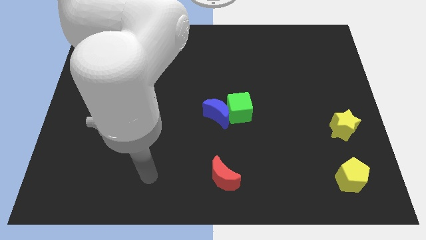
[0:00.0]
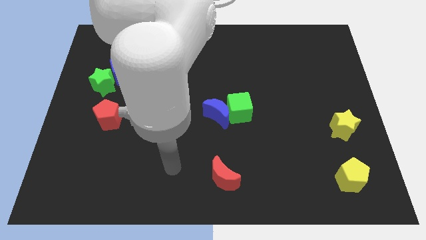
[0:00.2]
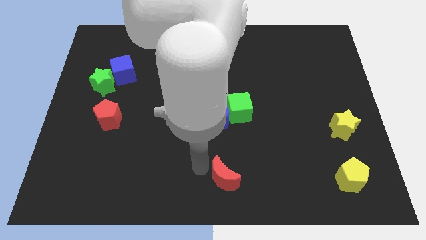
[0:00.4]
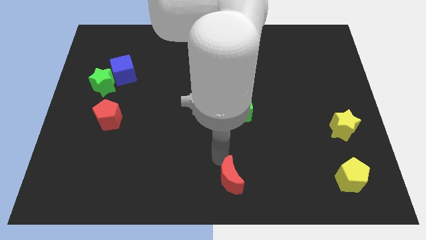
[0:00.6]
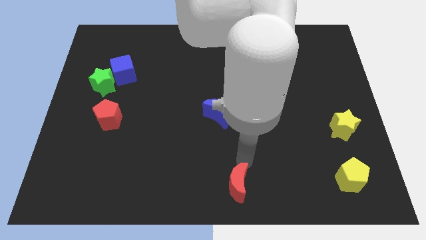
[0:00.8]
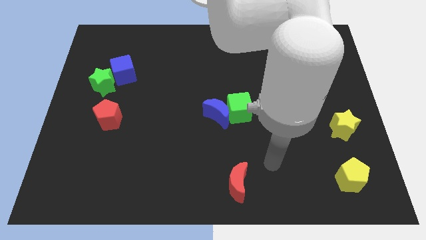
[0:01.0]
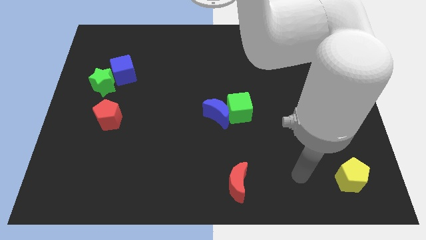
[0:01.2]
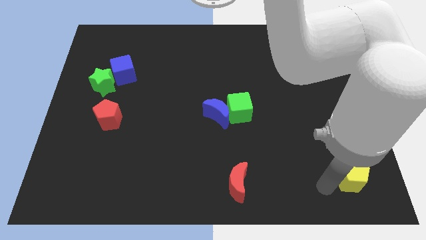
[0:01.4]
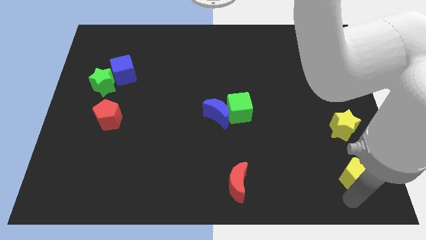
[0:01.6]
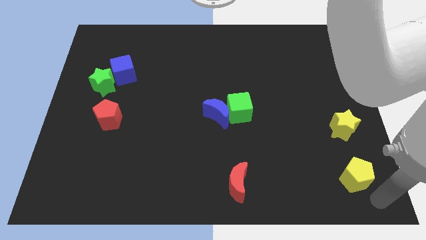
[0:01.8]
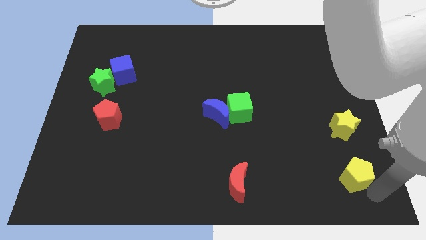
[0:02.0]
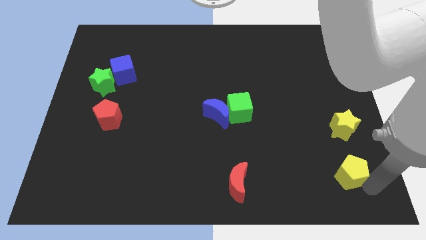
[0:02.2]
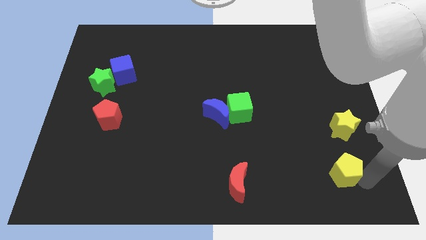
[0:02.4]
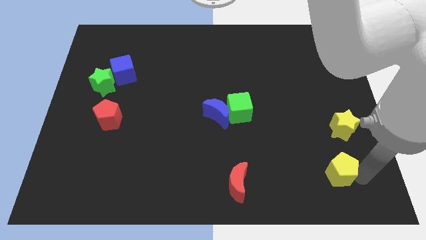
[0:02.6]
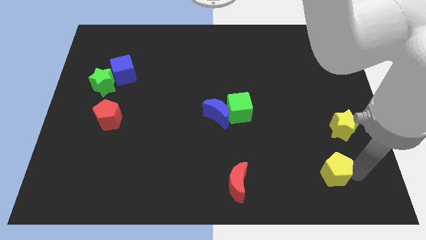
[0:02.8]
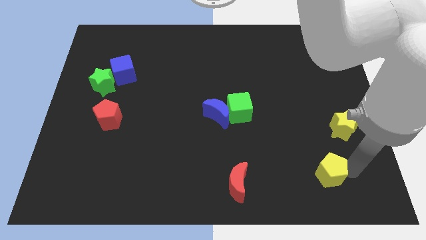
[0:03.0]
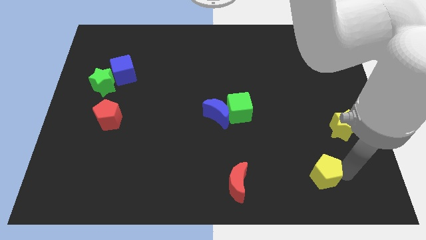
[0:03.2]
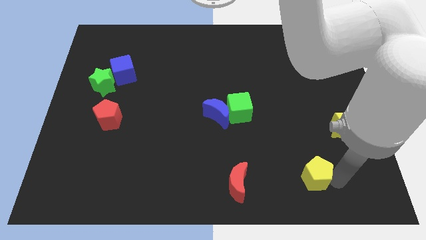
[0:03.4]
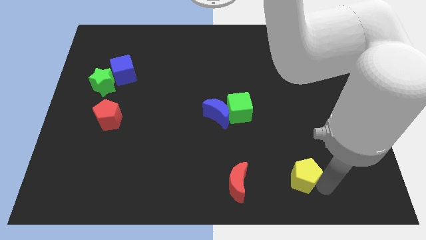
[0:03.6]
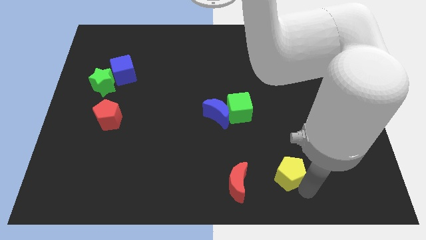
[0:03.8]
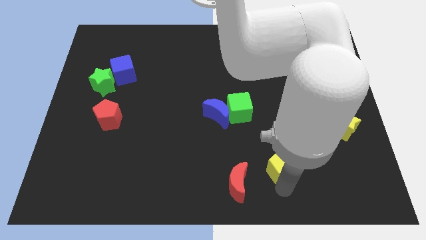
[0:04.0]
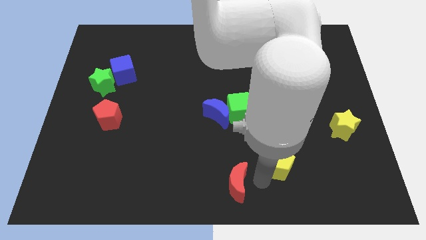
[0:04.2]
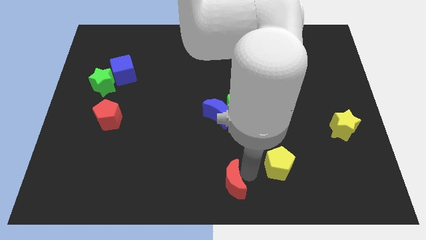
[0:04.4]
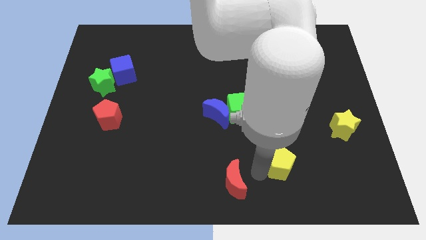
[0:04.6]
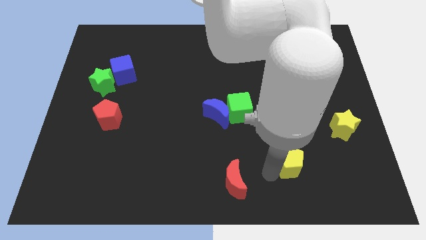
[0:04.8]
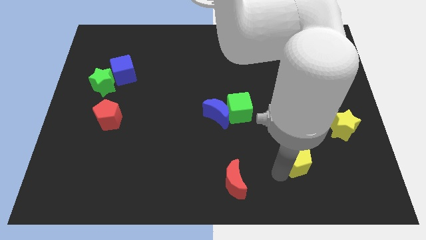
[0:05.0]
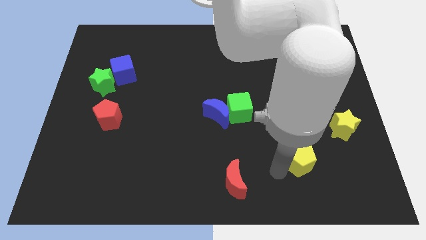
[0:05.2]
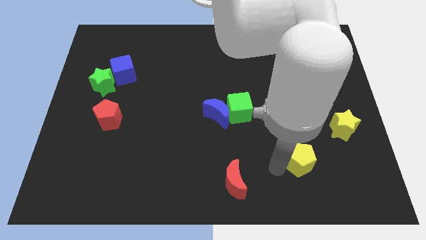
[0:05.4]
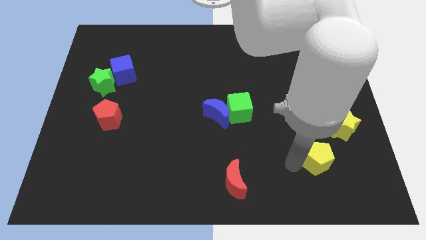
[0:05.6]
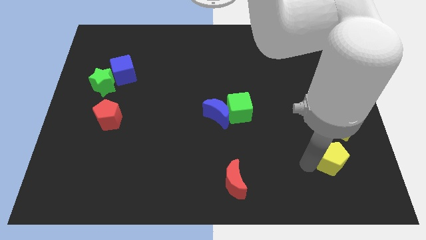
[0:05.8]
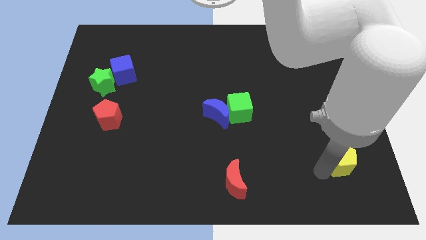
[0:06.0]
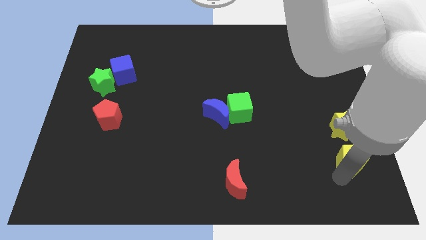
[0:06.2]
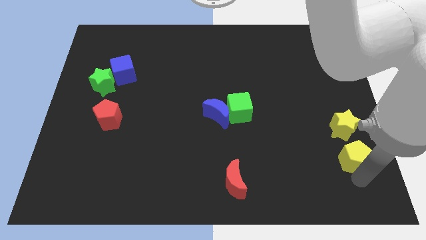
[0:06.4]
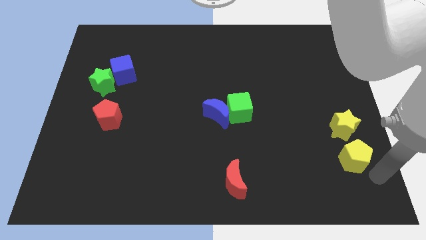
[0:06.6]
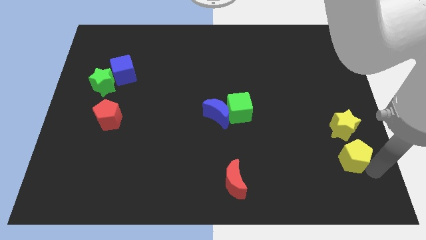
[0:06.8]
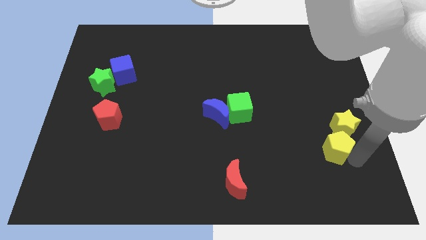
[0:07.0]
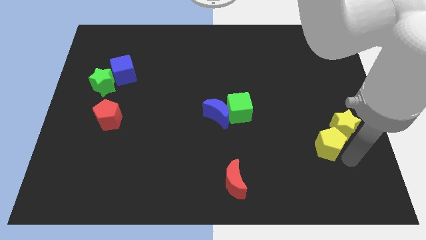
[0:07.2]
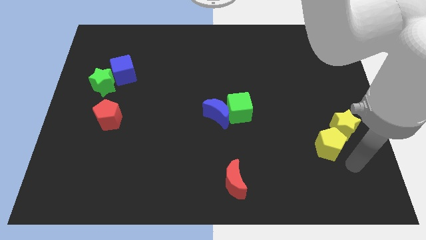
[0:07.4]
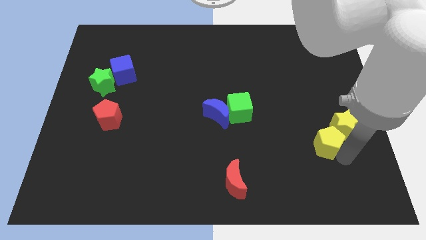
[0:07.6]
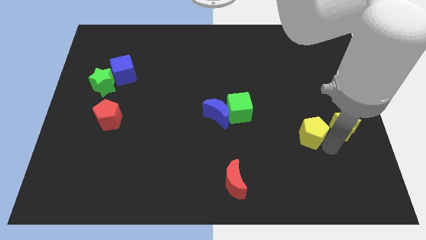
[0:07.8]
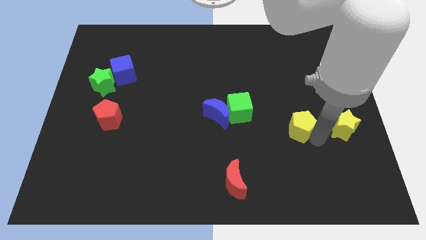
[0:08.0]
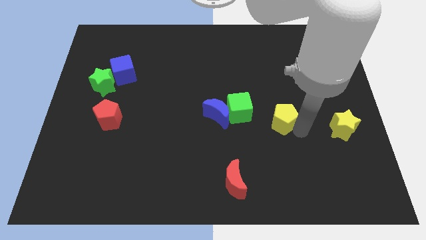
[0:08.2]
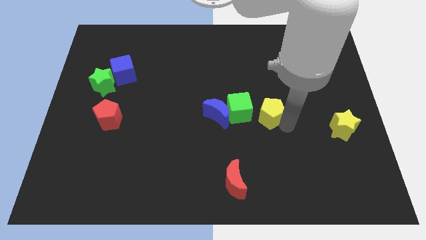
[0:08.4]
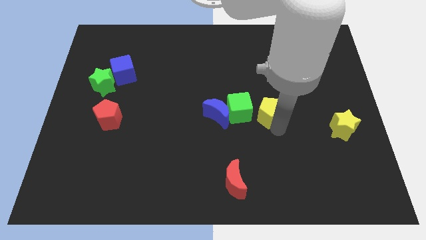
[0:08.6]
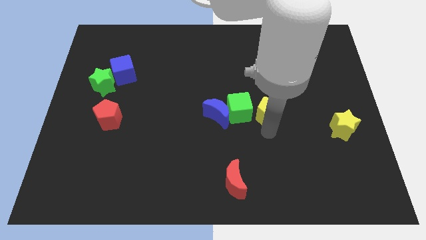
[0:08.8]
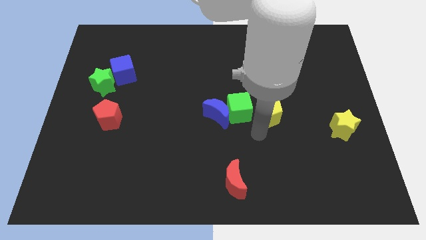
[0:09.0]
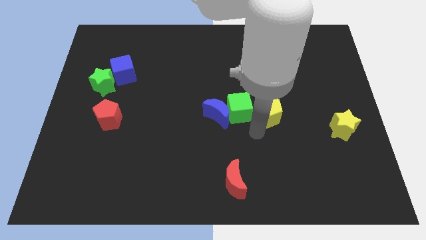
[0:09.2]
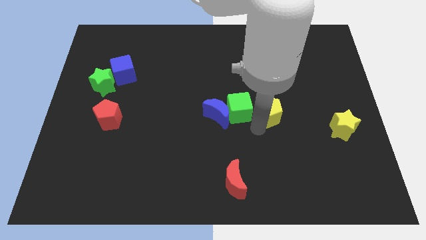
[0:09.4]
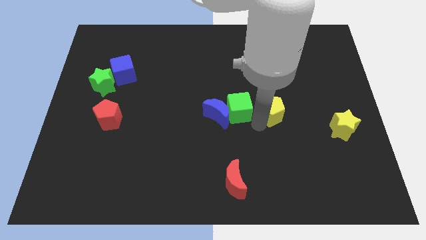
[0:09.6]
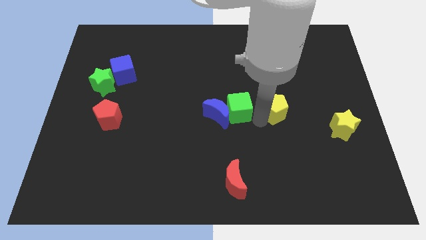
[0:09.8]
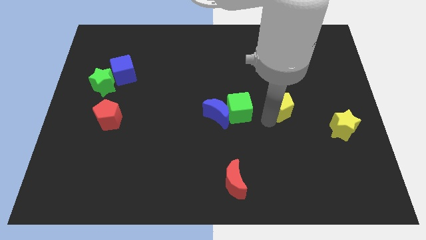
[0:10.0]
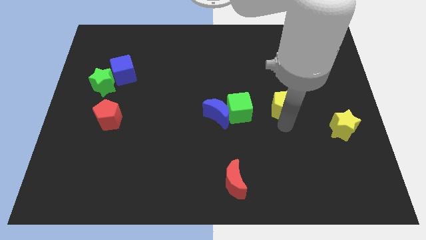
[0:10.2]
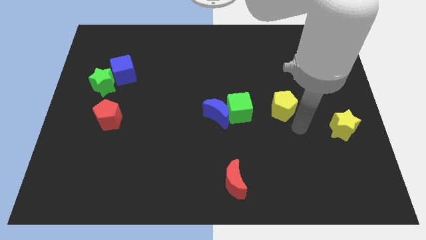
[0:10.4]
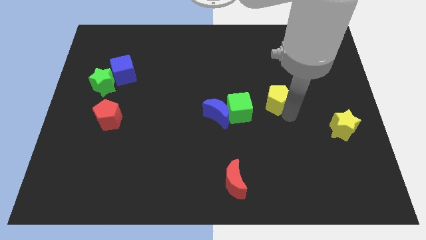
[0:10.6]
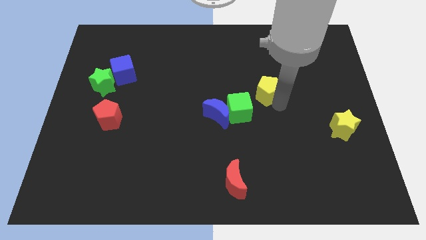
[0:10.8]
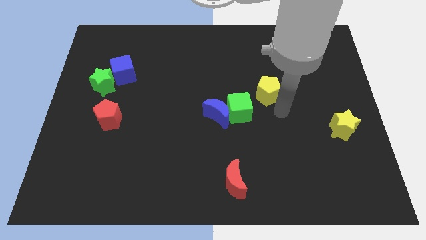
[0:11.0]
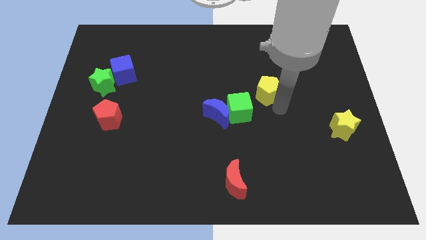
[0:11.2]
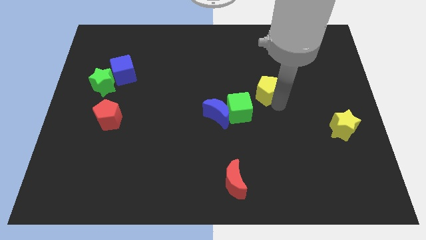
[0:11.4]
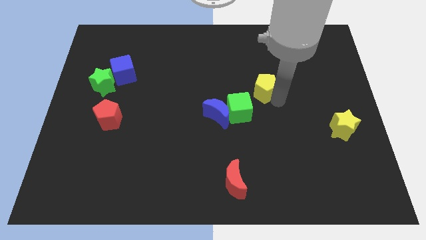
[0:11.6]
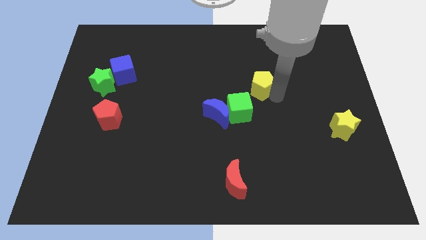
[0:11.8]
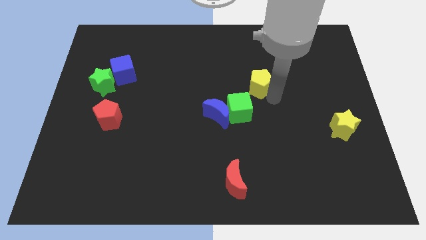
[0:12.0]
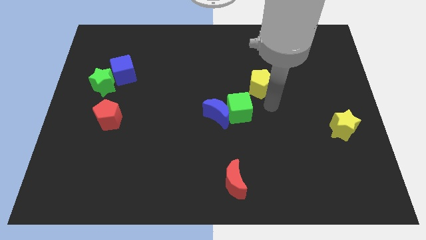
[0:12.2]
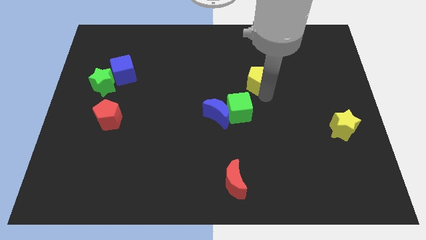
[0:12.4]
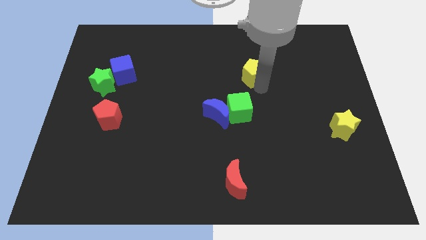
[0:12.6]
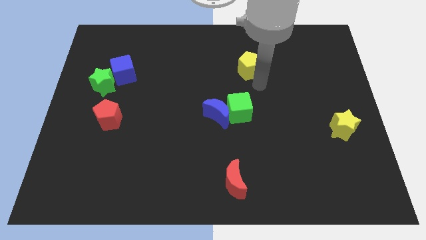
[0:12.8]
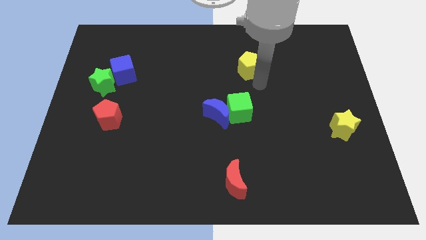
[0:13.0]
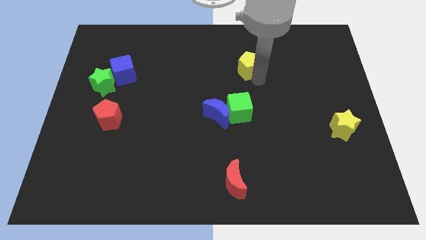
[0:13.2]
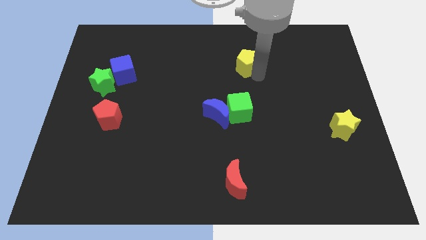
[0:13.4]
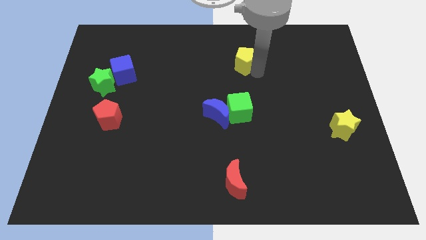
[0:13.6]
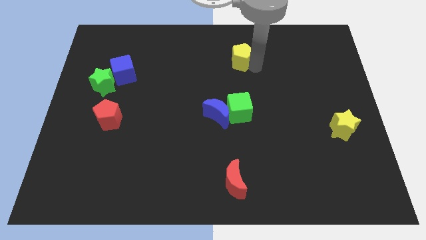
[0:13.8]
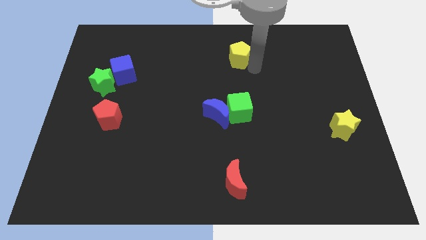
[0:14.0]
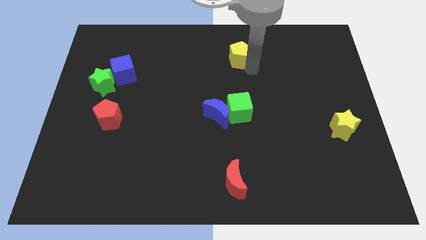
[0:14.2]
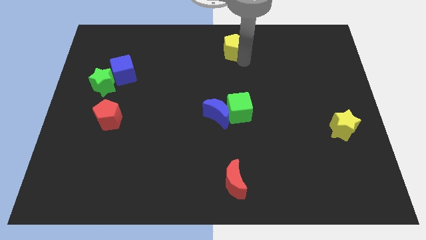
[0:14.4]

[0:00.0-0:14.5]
push the yellow pentagon to the top side
